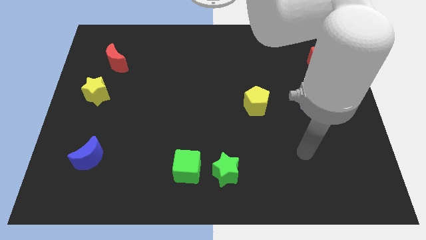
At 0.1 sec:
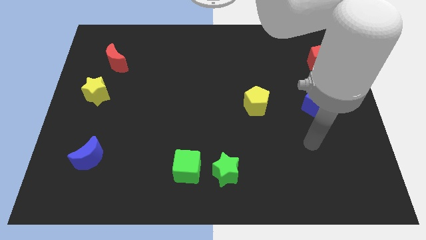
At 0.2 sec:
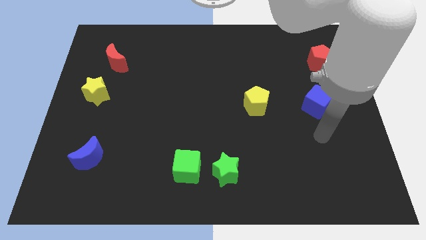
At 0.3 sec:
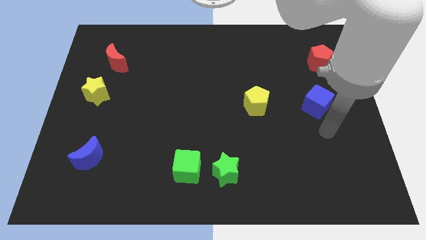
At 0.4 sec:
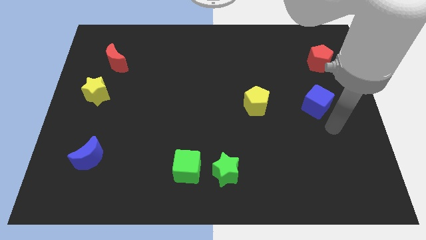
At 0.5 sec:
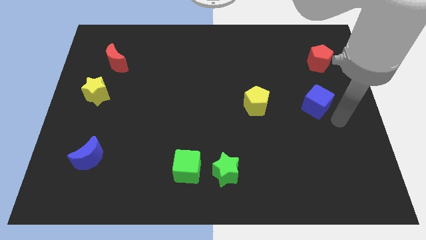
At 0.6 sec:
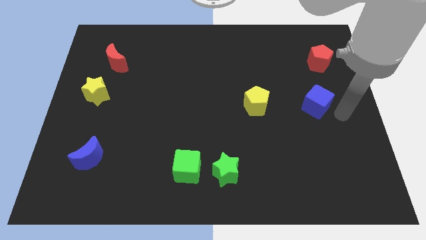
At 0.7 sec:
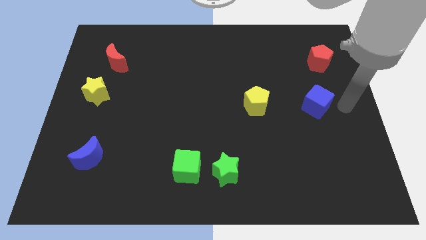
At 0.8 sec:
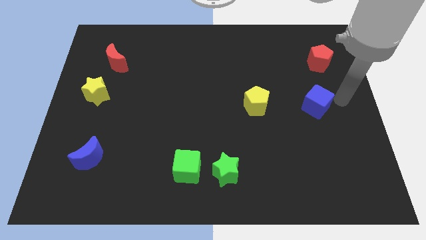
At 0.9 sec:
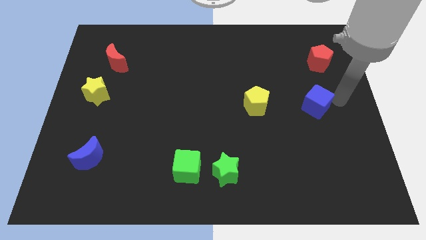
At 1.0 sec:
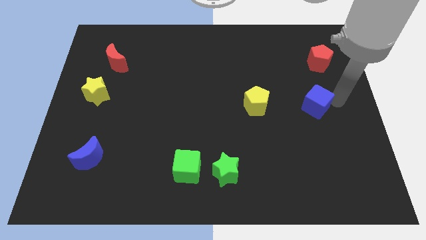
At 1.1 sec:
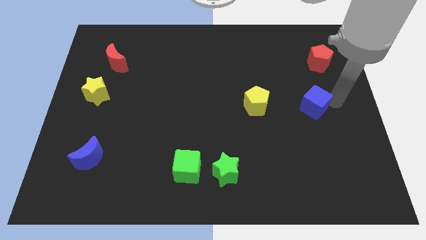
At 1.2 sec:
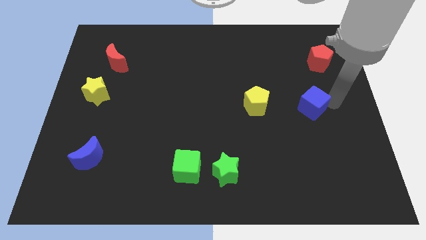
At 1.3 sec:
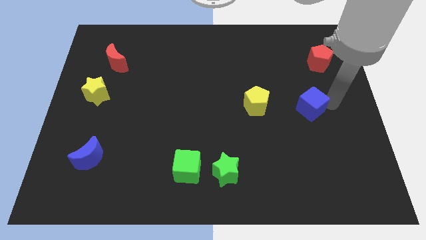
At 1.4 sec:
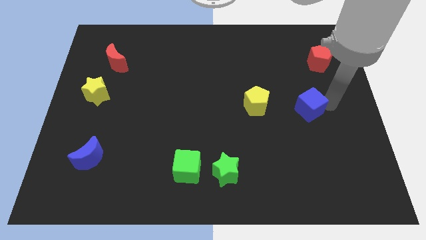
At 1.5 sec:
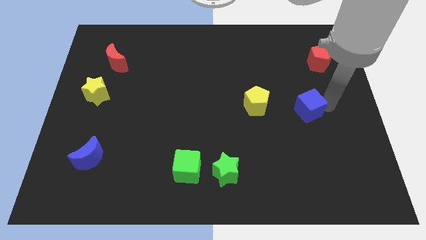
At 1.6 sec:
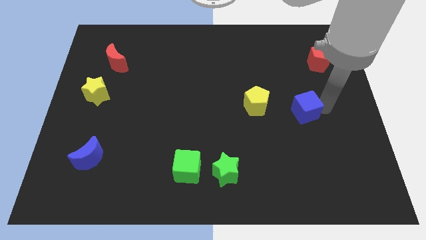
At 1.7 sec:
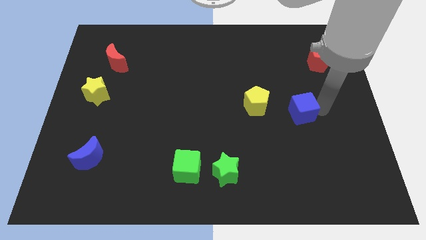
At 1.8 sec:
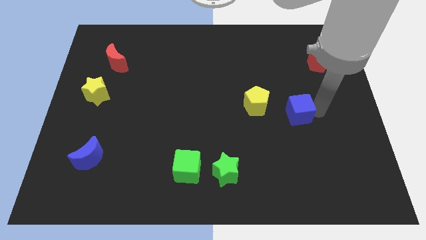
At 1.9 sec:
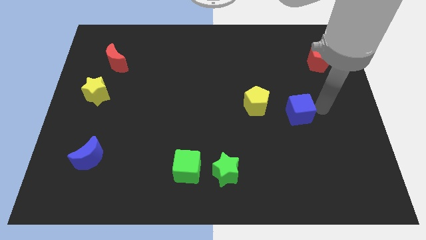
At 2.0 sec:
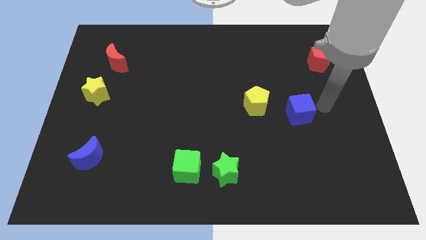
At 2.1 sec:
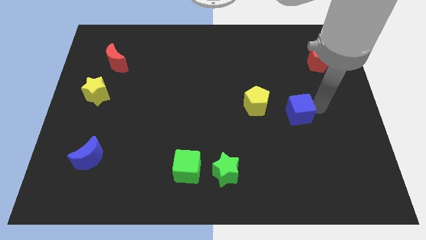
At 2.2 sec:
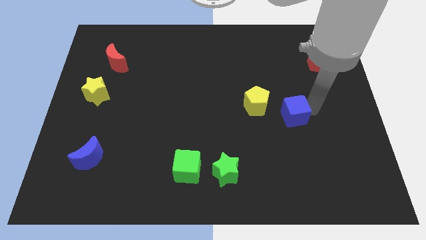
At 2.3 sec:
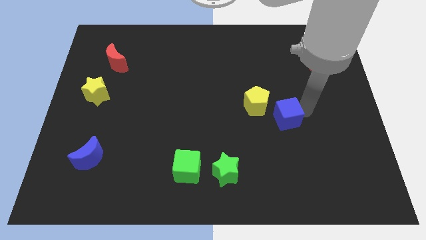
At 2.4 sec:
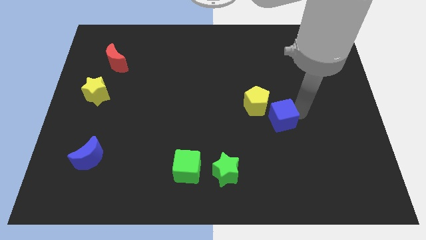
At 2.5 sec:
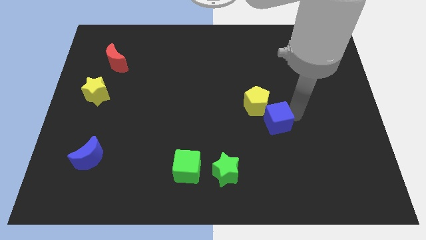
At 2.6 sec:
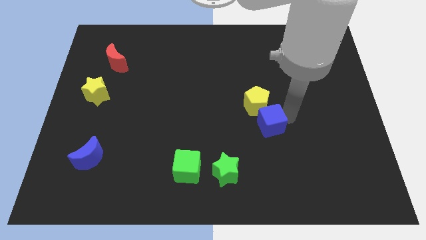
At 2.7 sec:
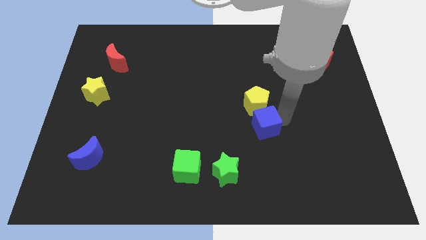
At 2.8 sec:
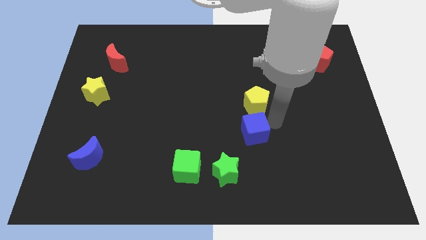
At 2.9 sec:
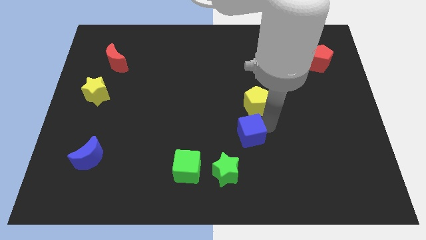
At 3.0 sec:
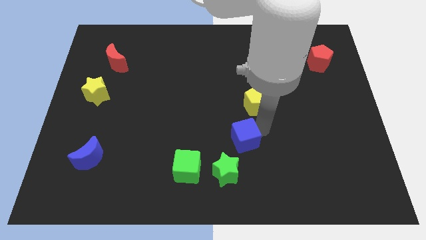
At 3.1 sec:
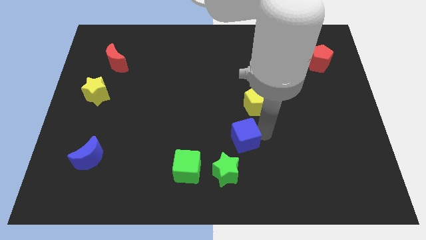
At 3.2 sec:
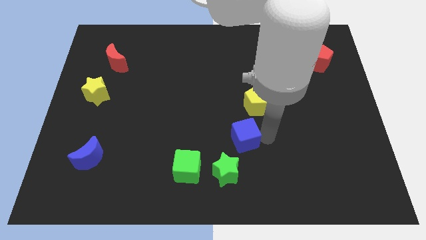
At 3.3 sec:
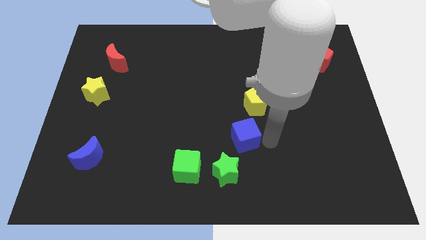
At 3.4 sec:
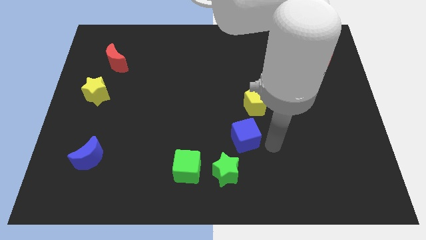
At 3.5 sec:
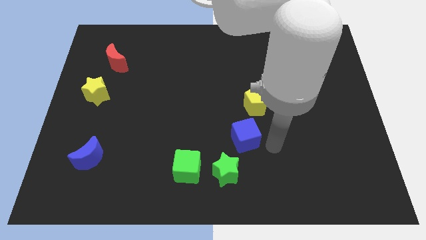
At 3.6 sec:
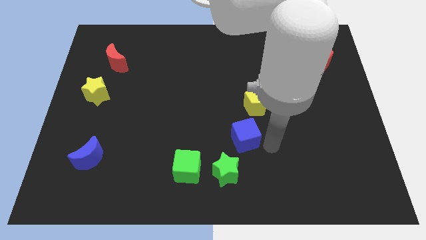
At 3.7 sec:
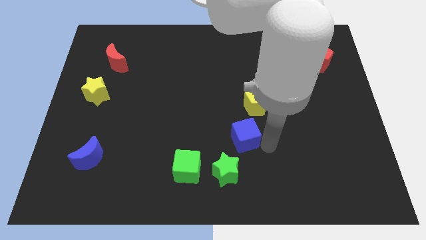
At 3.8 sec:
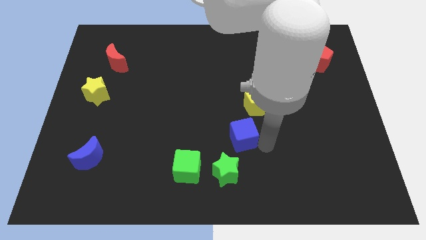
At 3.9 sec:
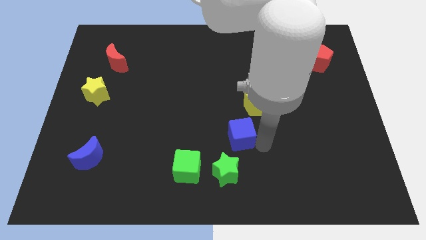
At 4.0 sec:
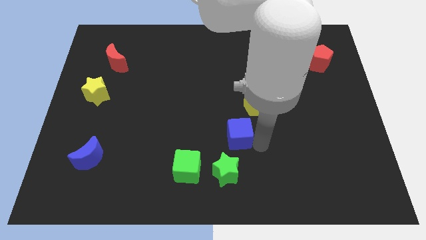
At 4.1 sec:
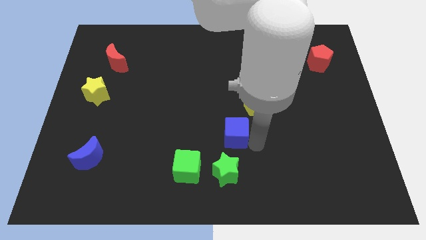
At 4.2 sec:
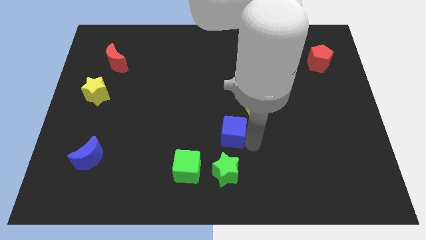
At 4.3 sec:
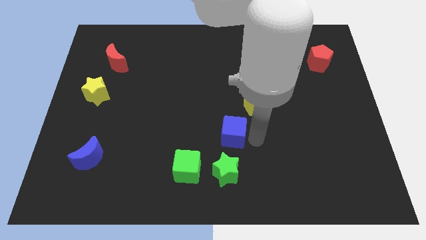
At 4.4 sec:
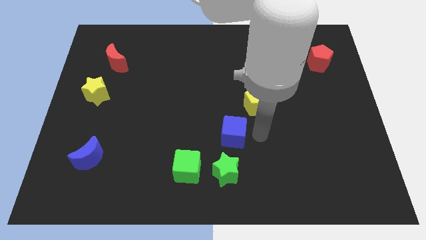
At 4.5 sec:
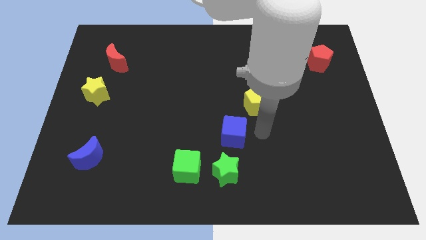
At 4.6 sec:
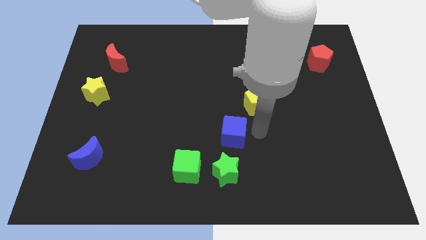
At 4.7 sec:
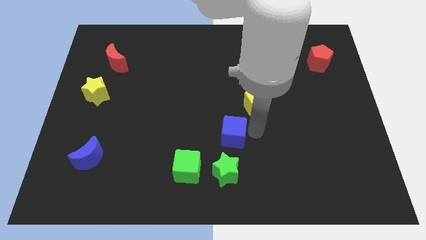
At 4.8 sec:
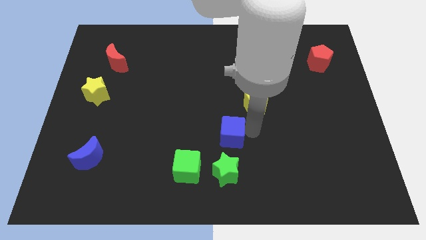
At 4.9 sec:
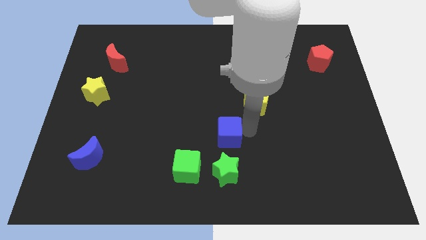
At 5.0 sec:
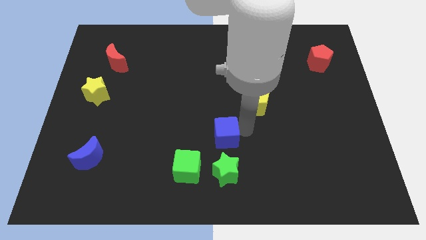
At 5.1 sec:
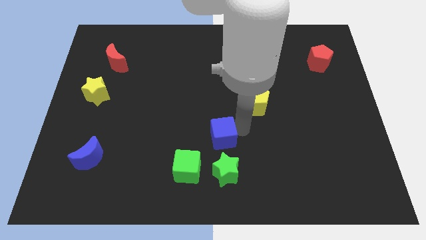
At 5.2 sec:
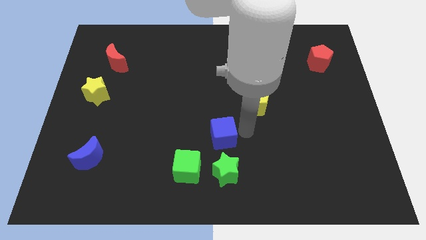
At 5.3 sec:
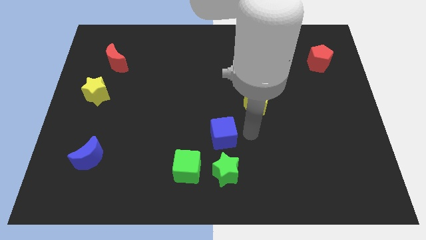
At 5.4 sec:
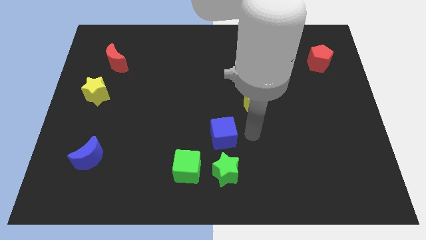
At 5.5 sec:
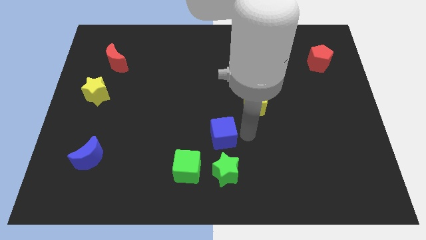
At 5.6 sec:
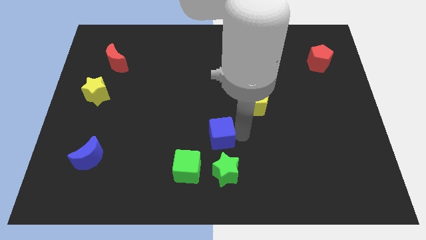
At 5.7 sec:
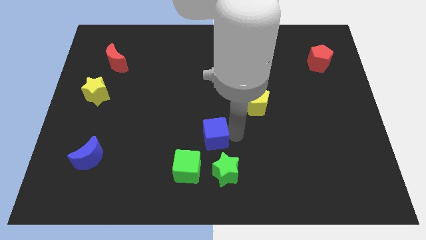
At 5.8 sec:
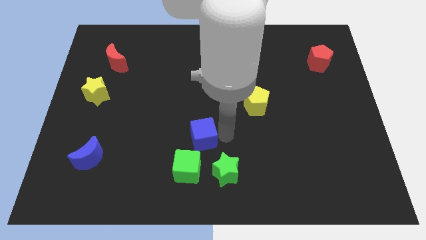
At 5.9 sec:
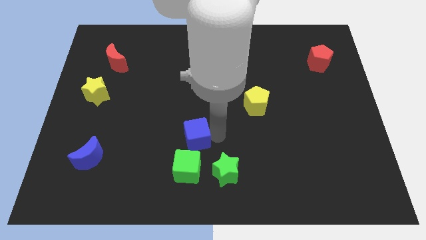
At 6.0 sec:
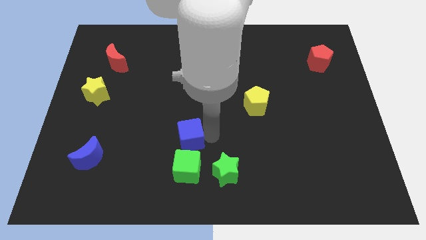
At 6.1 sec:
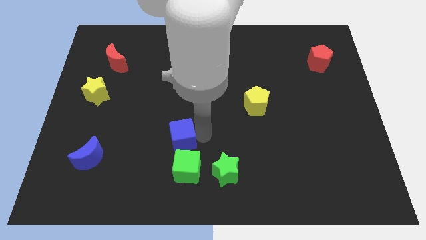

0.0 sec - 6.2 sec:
move the blue cube to the top left side of the green cube
